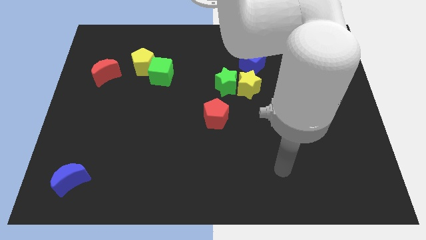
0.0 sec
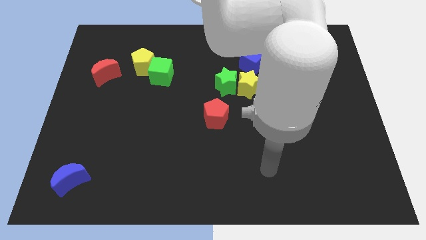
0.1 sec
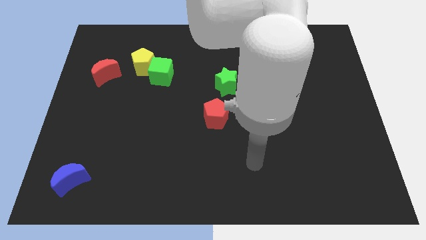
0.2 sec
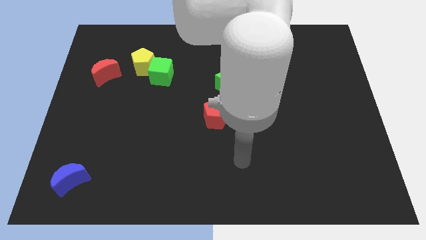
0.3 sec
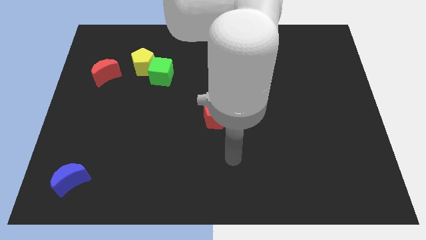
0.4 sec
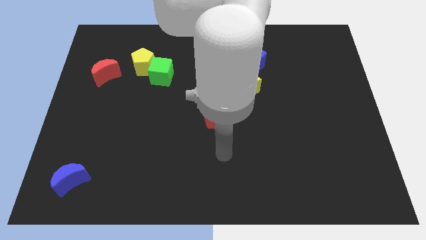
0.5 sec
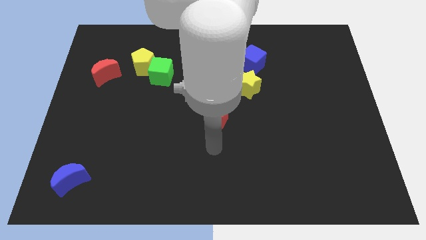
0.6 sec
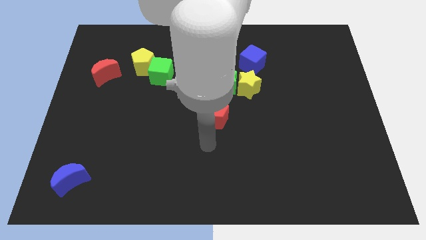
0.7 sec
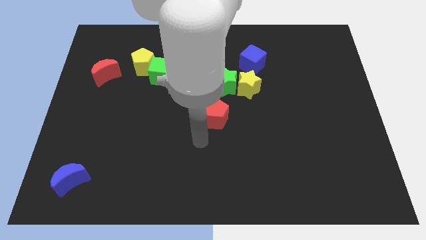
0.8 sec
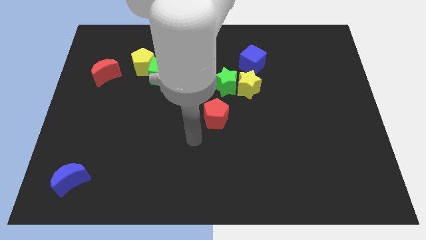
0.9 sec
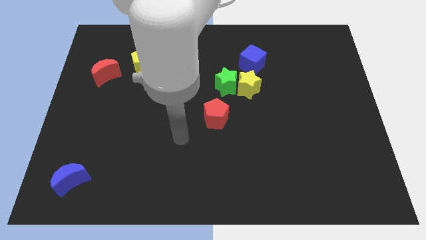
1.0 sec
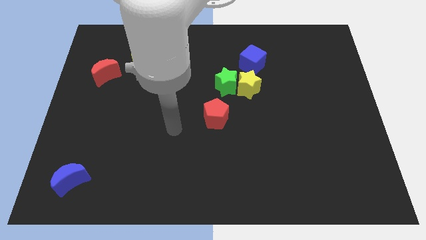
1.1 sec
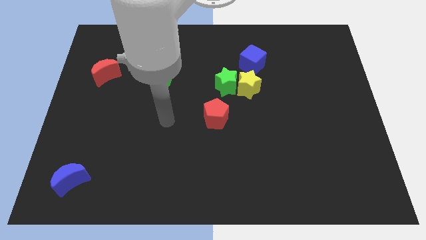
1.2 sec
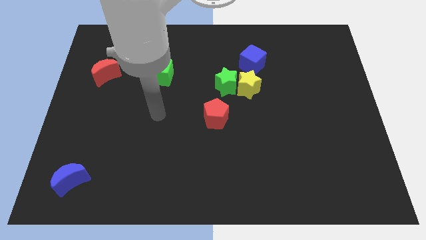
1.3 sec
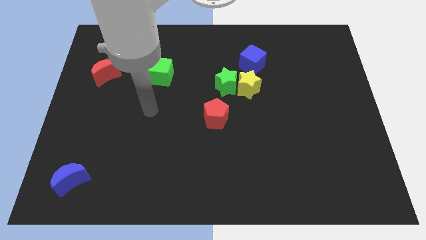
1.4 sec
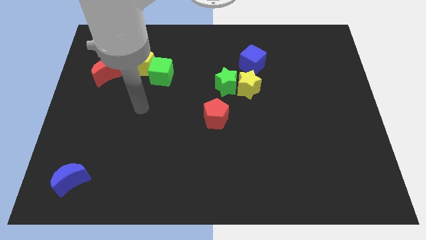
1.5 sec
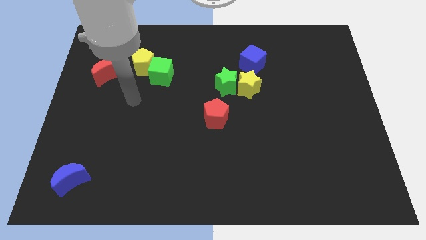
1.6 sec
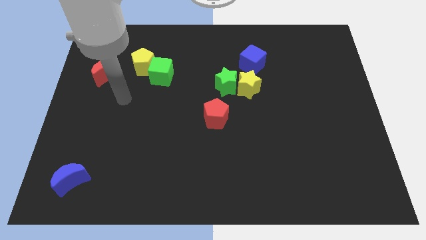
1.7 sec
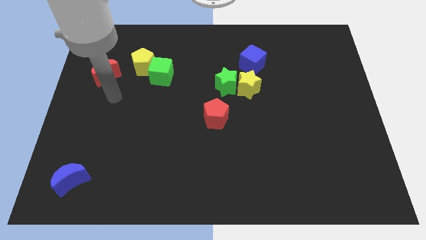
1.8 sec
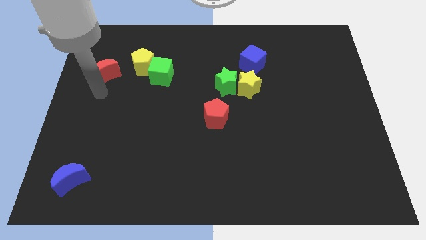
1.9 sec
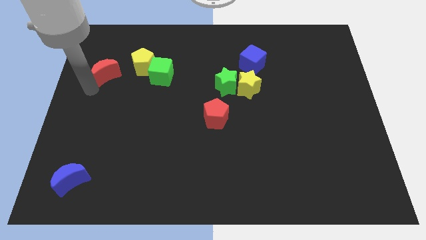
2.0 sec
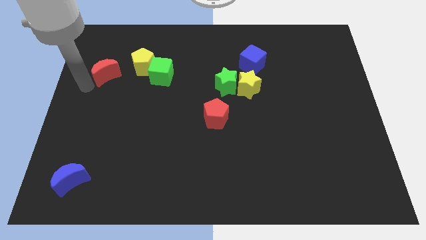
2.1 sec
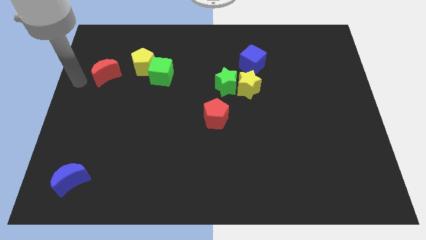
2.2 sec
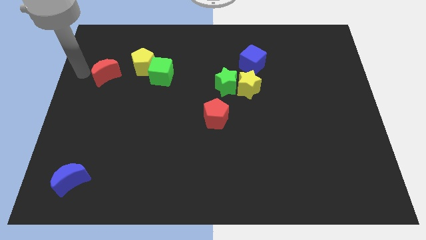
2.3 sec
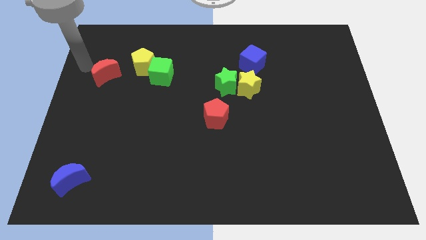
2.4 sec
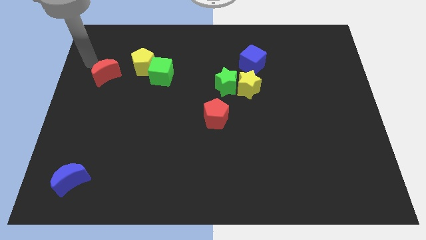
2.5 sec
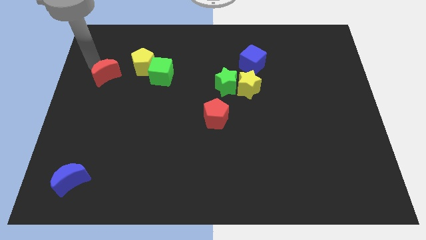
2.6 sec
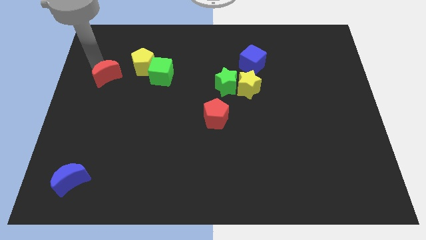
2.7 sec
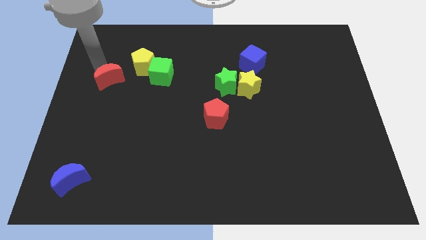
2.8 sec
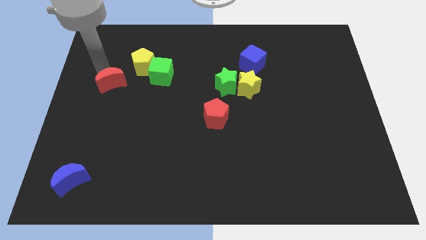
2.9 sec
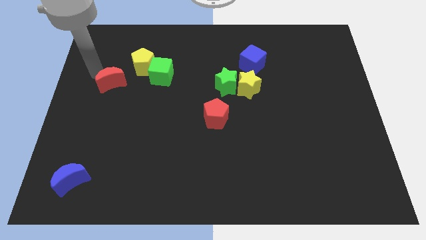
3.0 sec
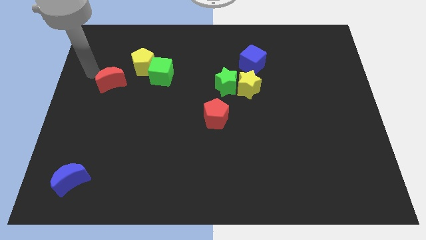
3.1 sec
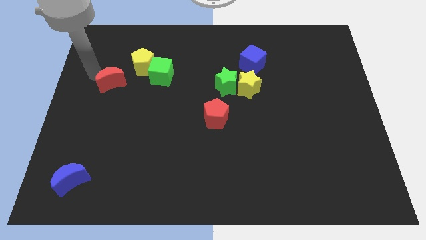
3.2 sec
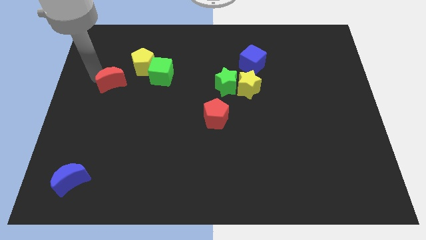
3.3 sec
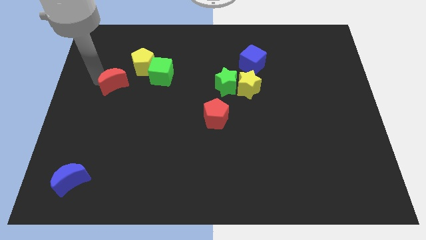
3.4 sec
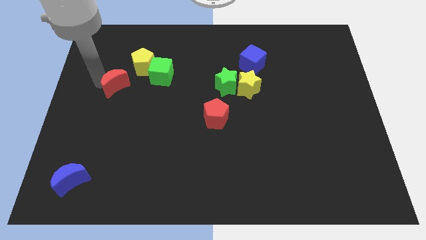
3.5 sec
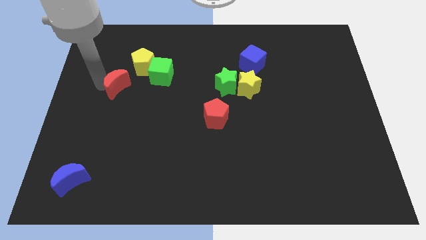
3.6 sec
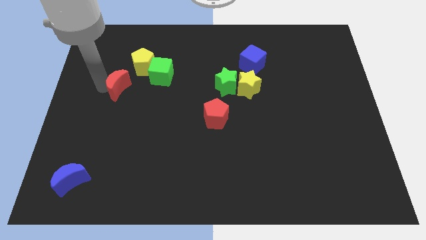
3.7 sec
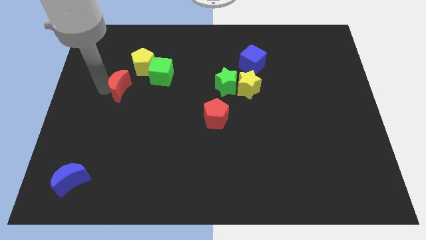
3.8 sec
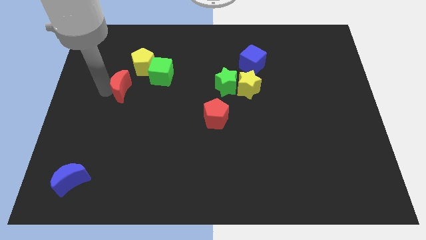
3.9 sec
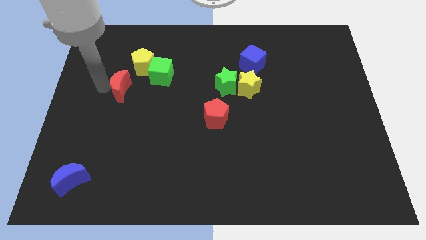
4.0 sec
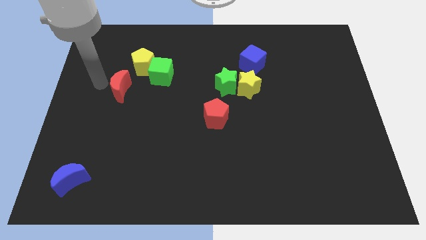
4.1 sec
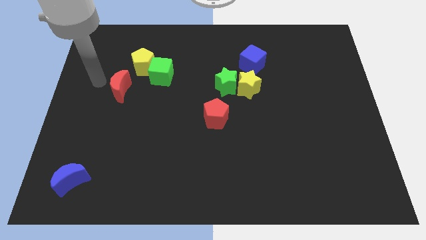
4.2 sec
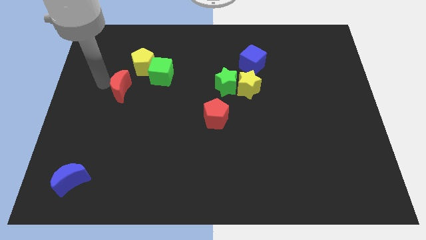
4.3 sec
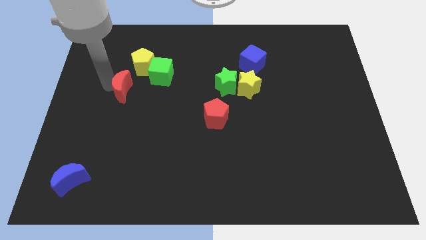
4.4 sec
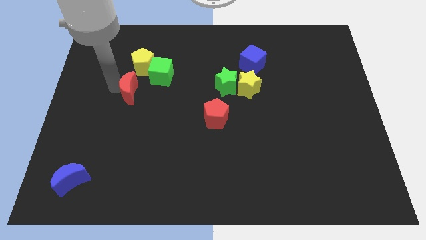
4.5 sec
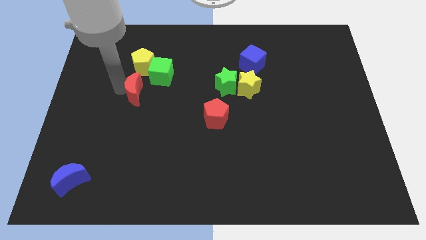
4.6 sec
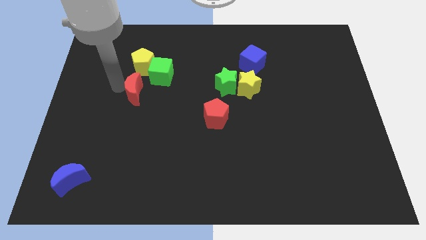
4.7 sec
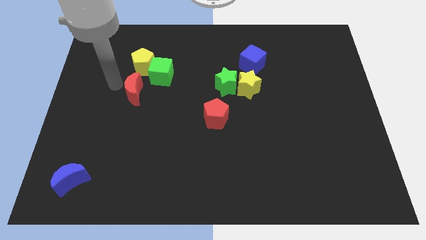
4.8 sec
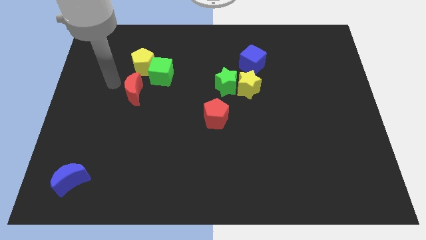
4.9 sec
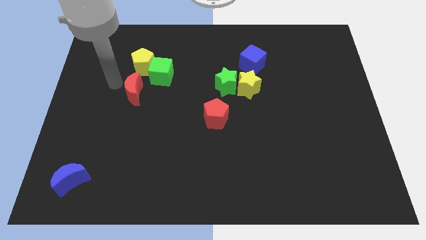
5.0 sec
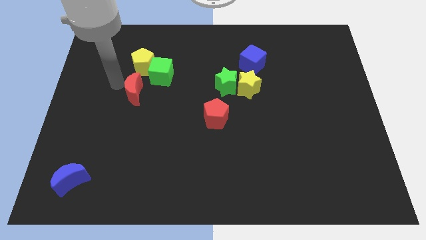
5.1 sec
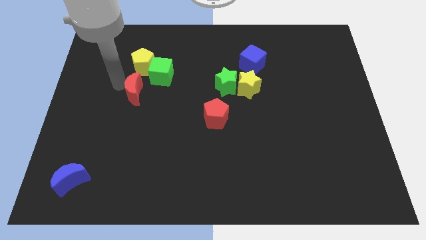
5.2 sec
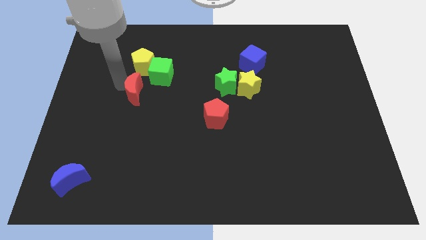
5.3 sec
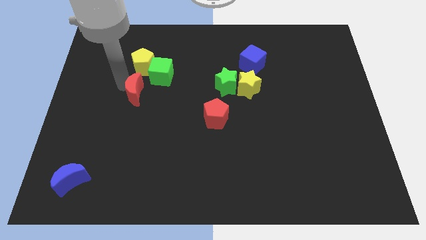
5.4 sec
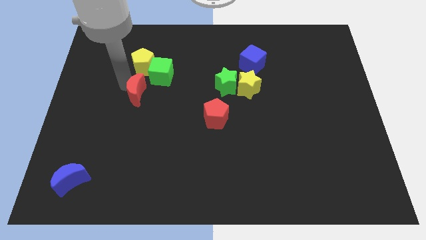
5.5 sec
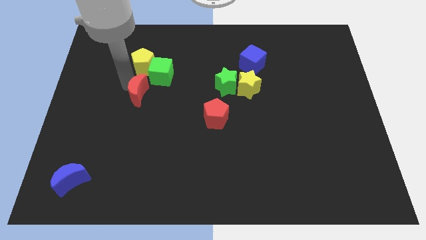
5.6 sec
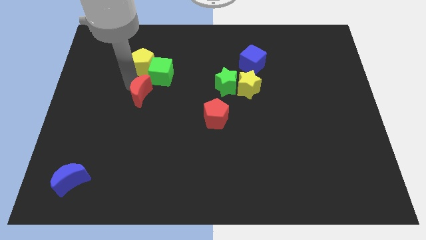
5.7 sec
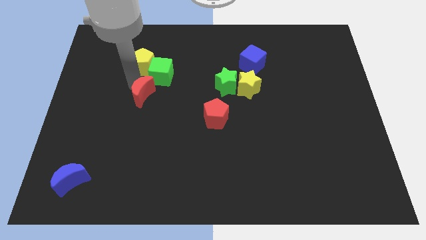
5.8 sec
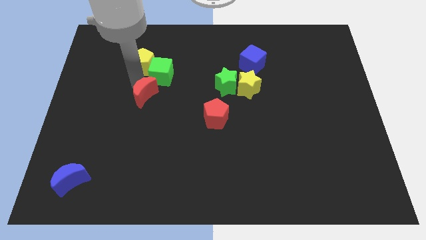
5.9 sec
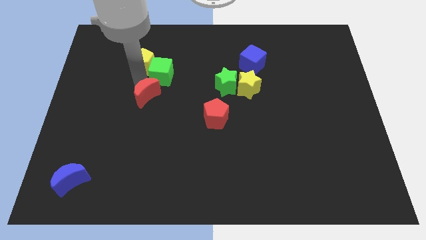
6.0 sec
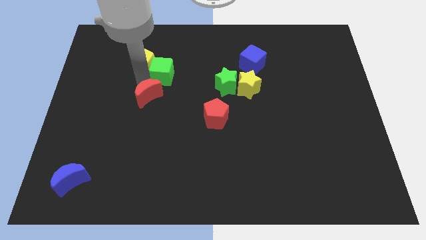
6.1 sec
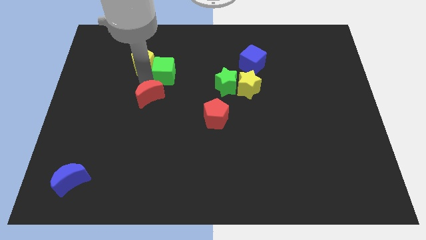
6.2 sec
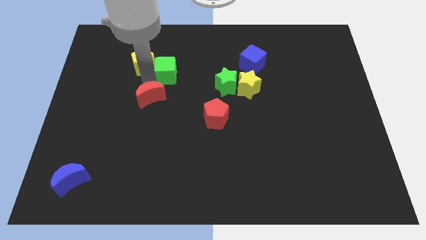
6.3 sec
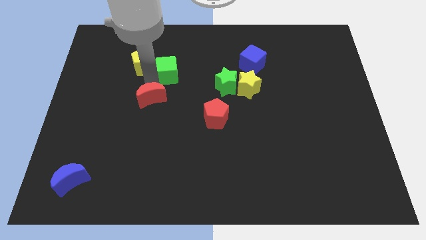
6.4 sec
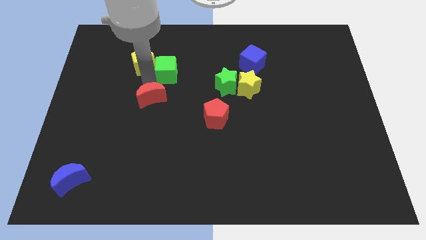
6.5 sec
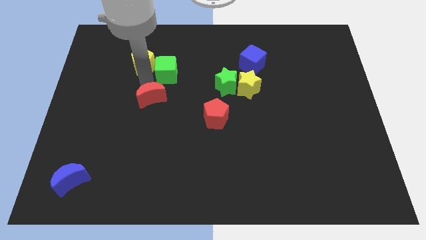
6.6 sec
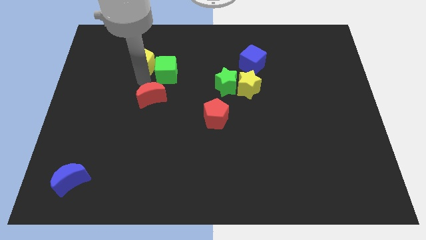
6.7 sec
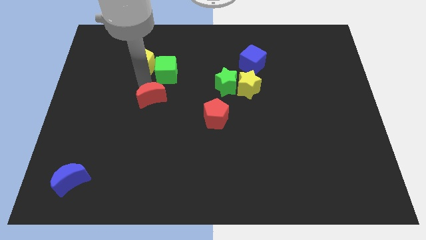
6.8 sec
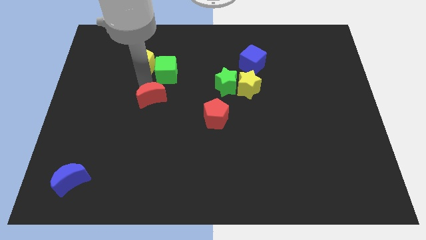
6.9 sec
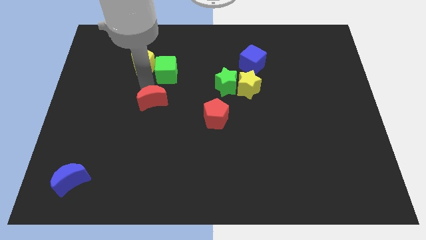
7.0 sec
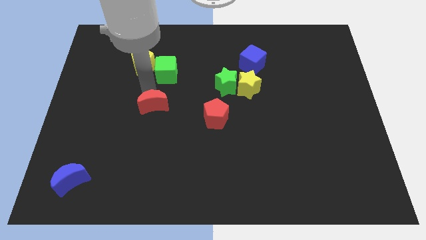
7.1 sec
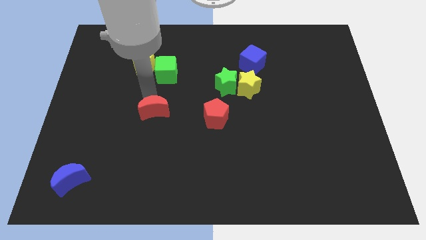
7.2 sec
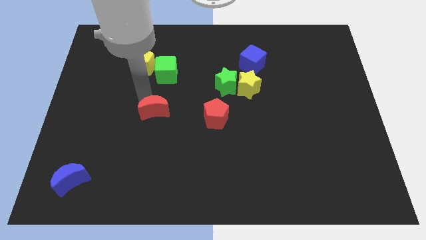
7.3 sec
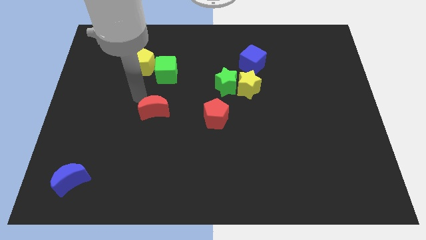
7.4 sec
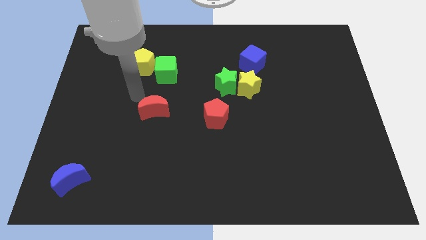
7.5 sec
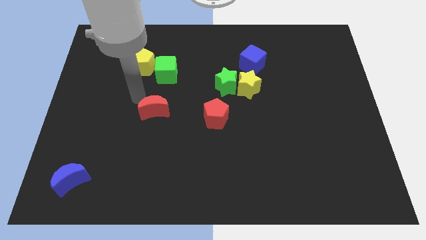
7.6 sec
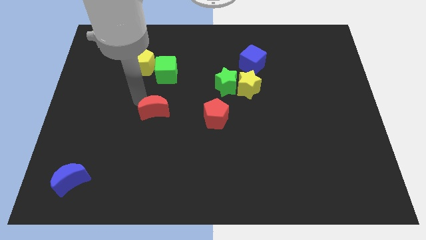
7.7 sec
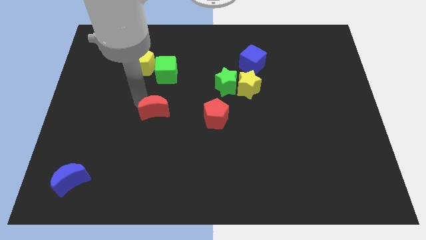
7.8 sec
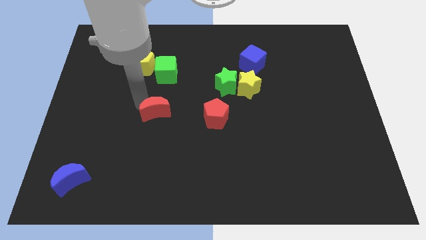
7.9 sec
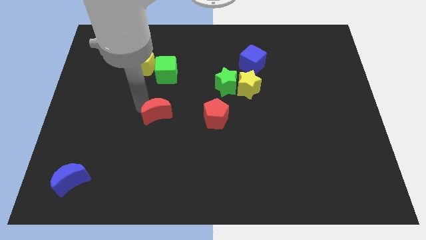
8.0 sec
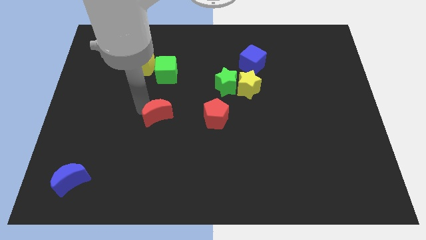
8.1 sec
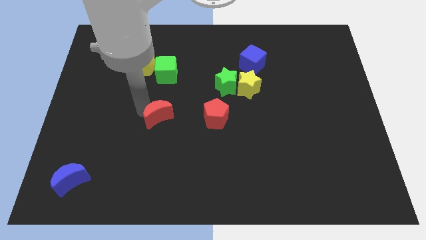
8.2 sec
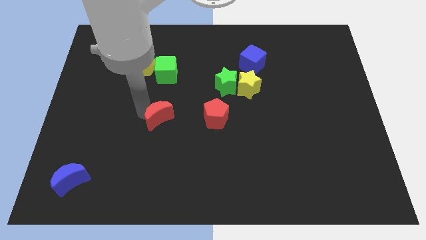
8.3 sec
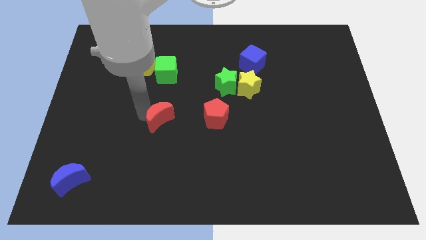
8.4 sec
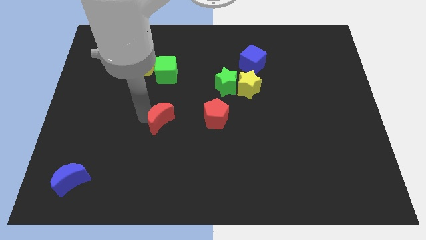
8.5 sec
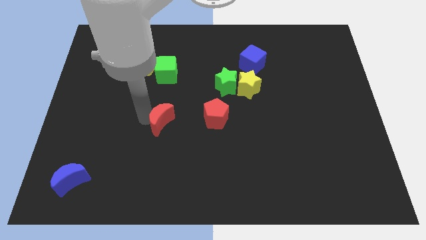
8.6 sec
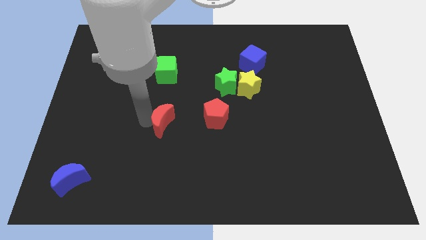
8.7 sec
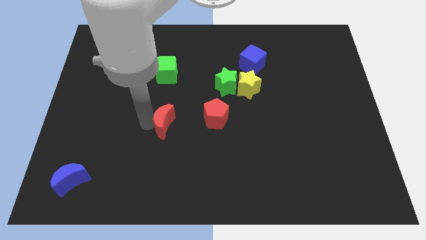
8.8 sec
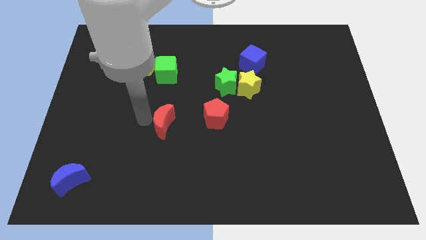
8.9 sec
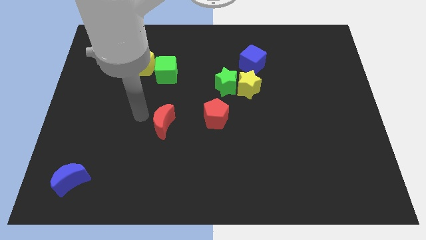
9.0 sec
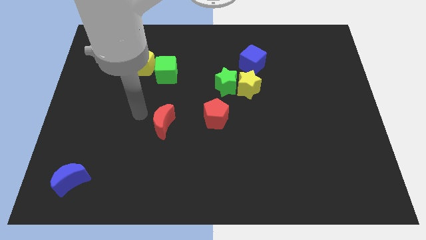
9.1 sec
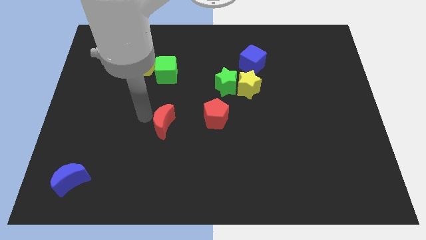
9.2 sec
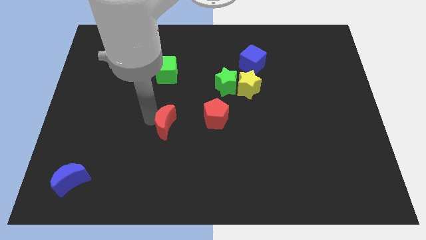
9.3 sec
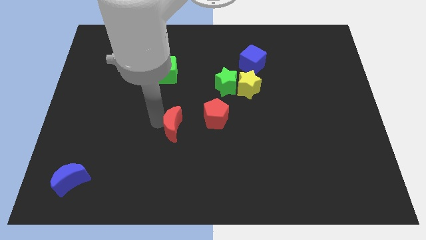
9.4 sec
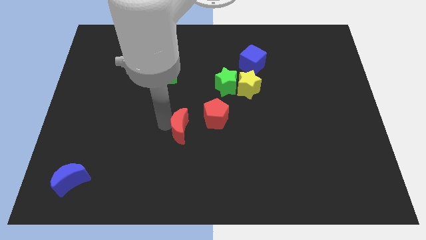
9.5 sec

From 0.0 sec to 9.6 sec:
slide the red moon to the bottom left side of the red pentagon
